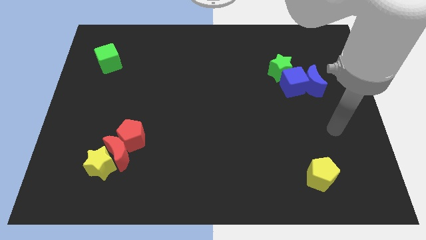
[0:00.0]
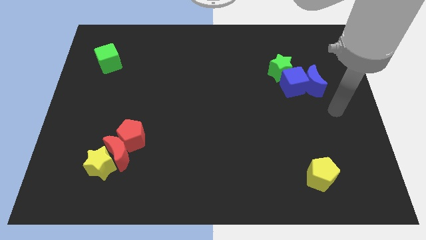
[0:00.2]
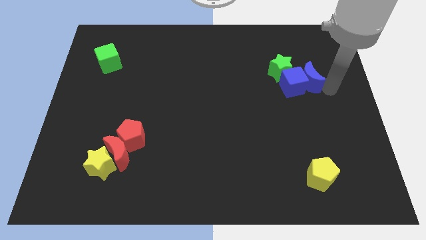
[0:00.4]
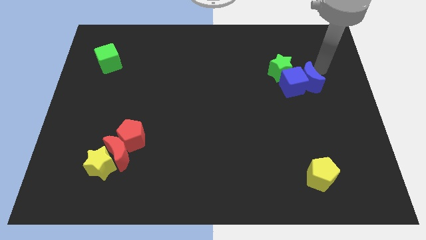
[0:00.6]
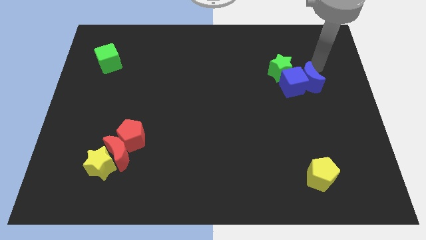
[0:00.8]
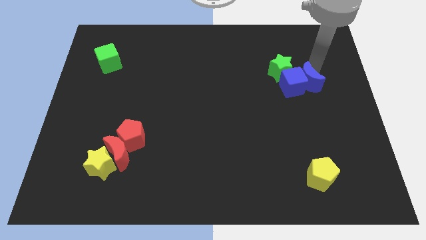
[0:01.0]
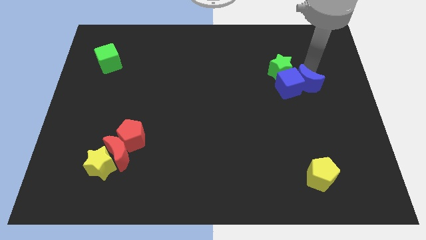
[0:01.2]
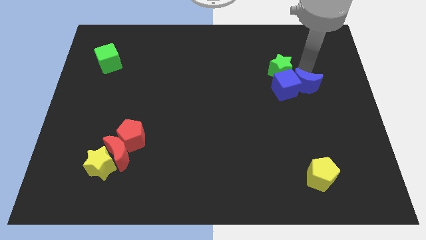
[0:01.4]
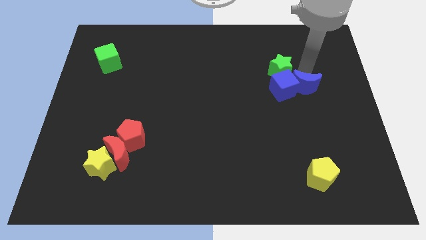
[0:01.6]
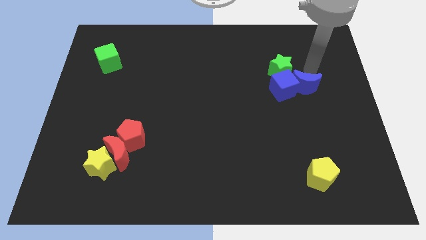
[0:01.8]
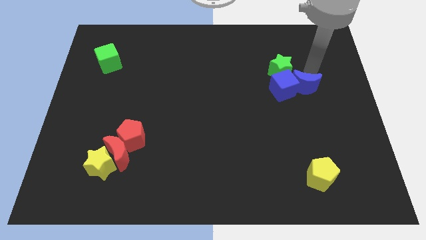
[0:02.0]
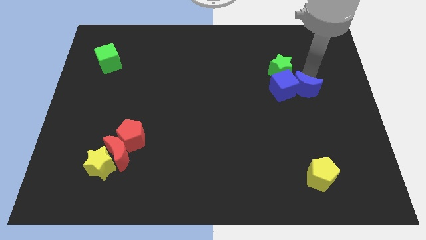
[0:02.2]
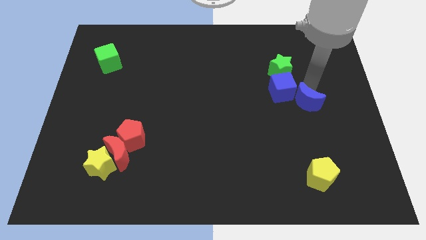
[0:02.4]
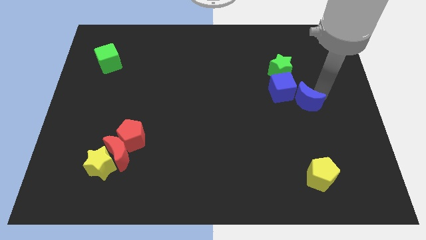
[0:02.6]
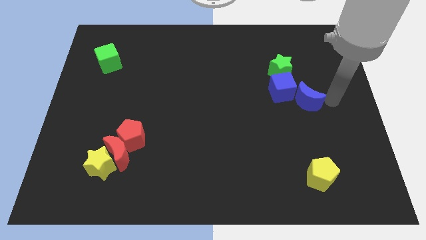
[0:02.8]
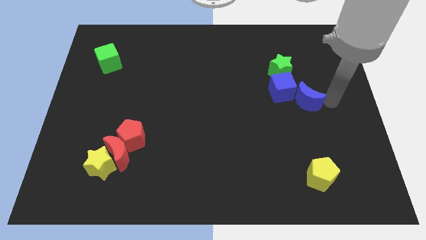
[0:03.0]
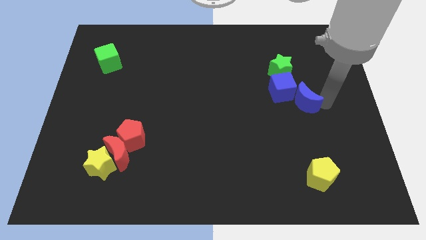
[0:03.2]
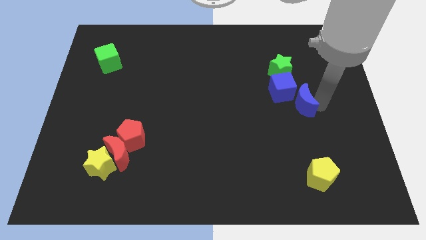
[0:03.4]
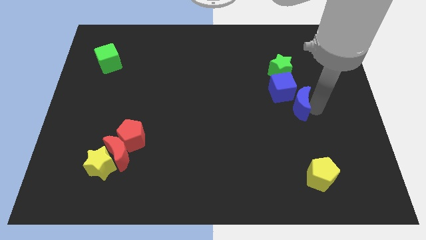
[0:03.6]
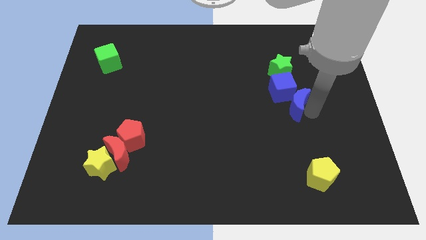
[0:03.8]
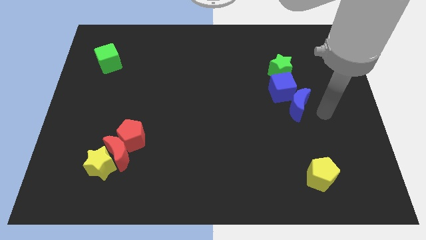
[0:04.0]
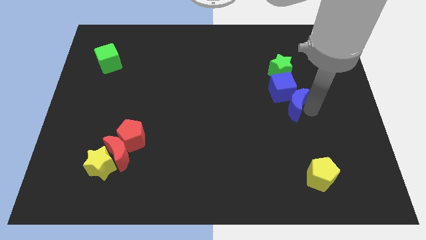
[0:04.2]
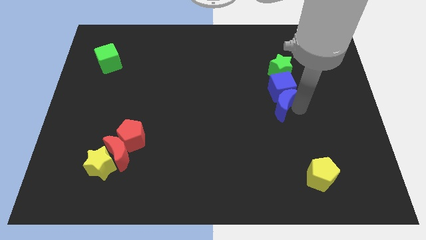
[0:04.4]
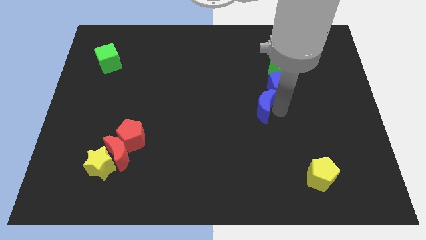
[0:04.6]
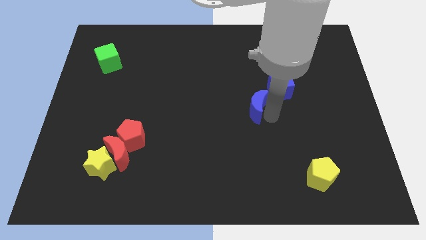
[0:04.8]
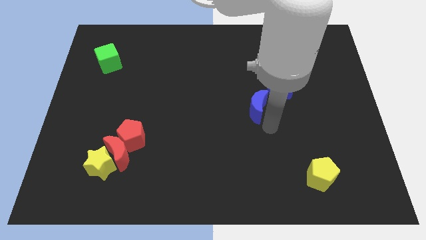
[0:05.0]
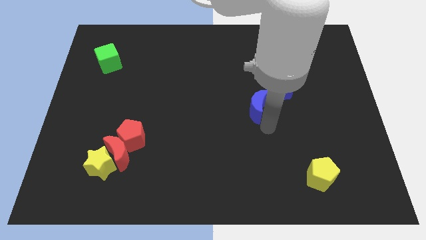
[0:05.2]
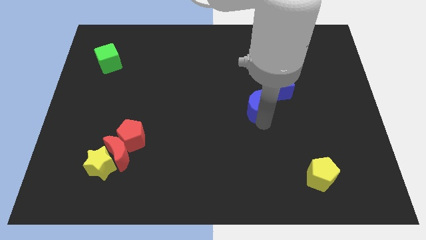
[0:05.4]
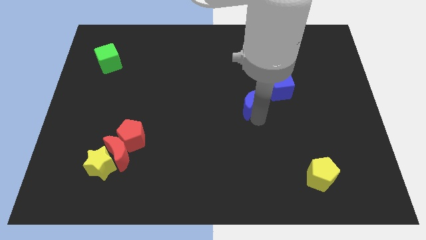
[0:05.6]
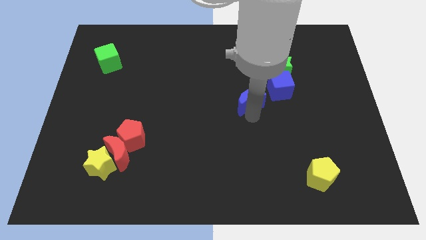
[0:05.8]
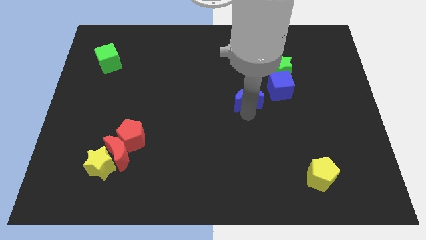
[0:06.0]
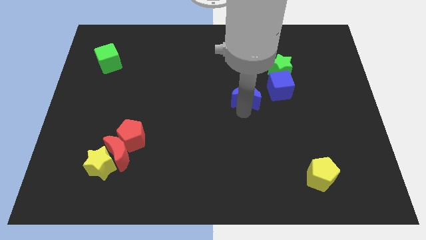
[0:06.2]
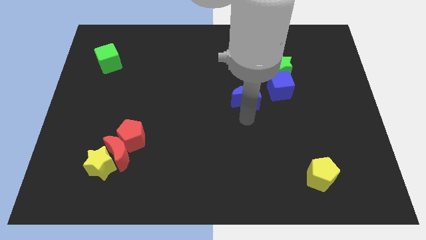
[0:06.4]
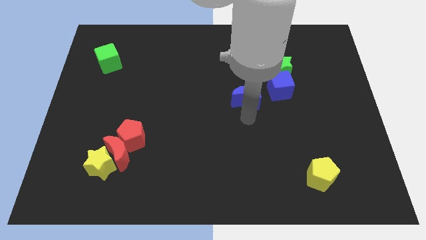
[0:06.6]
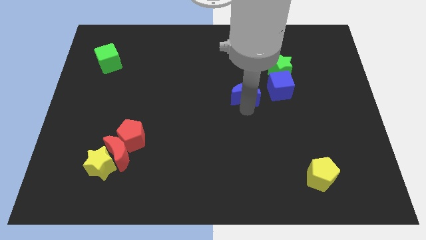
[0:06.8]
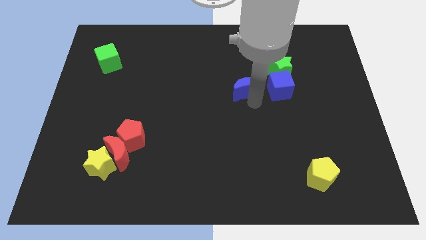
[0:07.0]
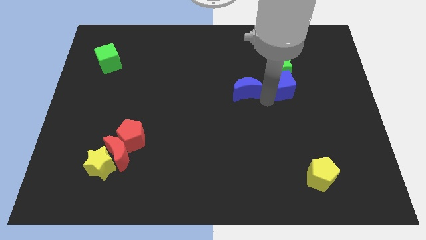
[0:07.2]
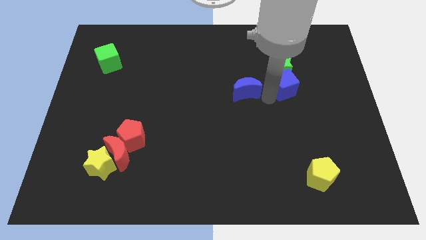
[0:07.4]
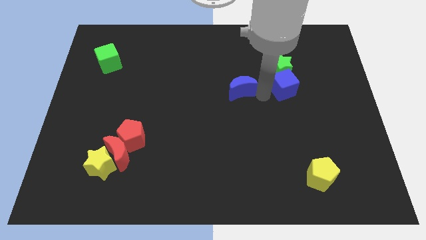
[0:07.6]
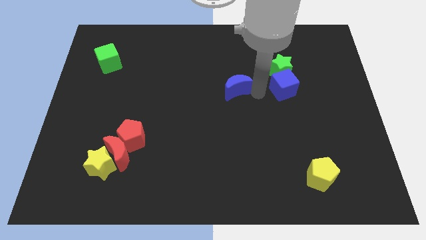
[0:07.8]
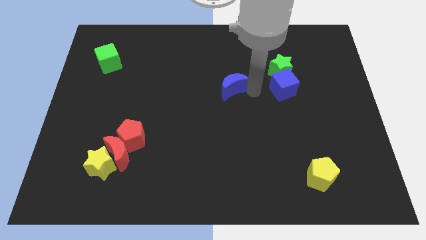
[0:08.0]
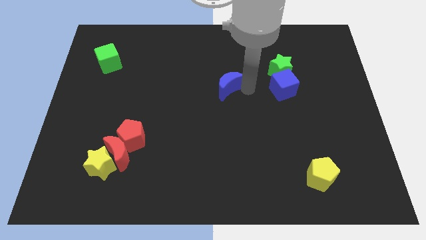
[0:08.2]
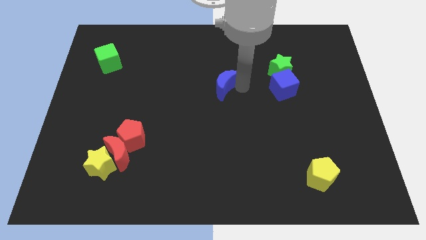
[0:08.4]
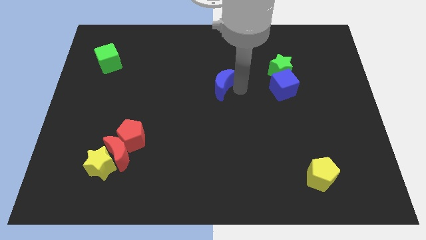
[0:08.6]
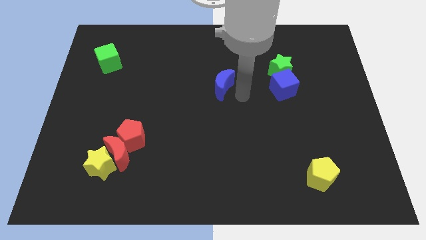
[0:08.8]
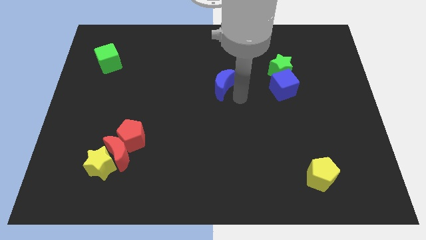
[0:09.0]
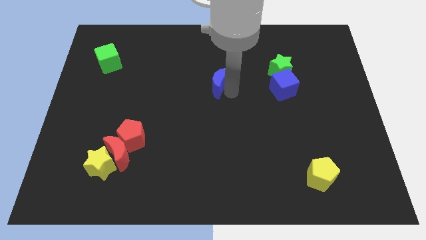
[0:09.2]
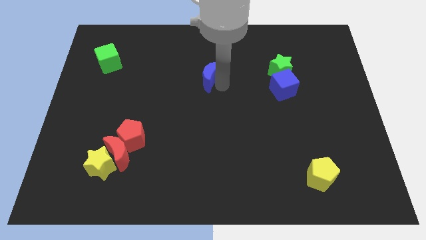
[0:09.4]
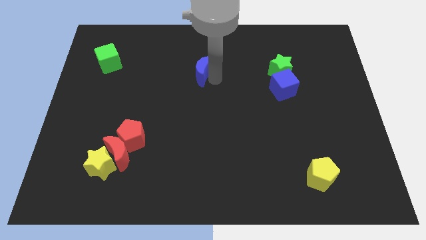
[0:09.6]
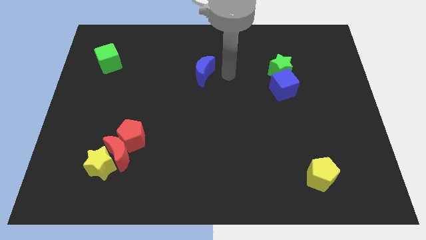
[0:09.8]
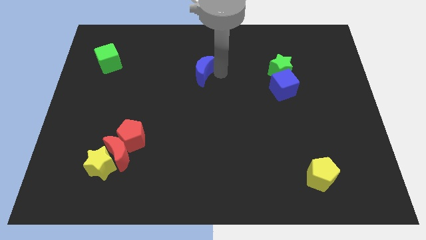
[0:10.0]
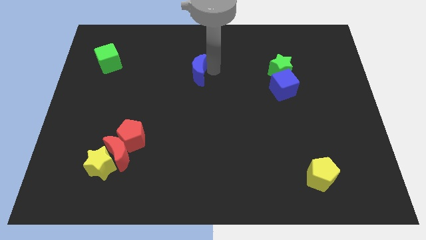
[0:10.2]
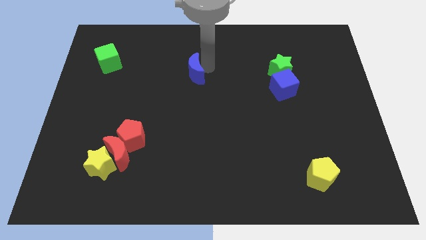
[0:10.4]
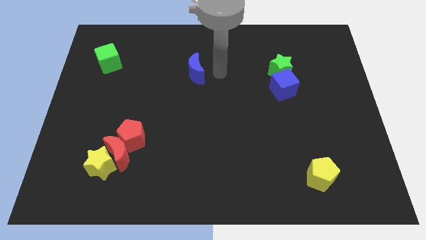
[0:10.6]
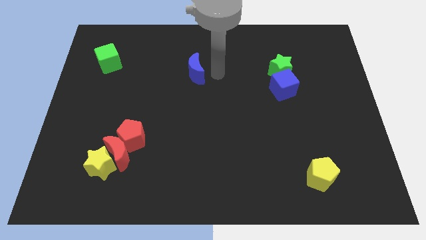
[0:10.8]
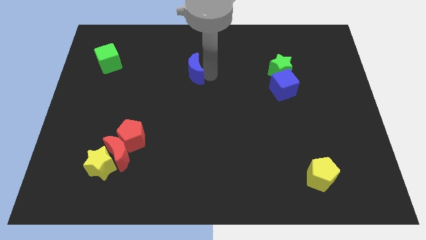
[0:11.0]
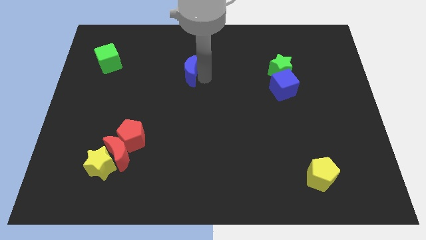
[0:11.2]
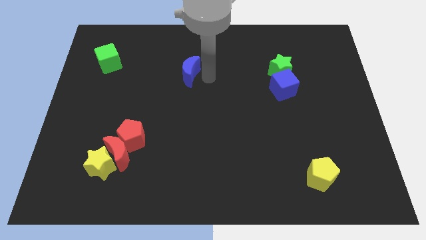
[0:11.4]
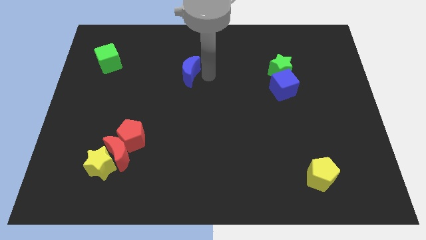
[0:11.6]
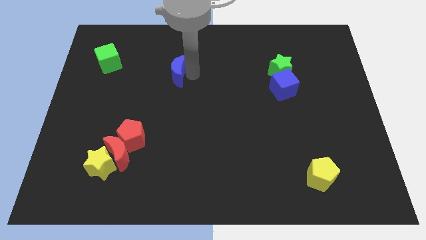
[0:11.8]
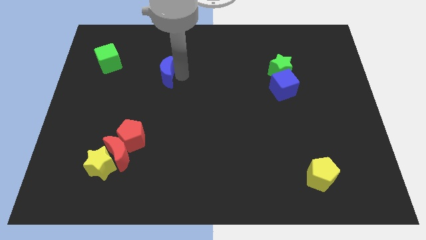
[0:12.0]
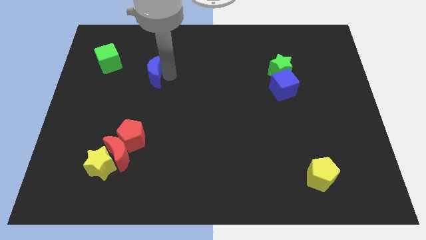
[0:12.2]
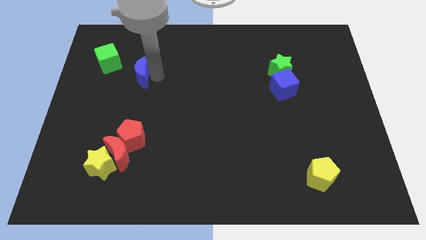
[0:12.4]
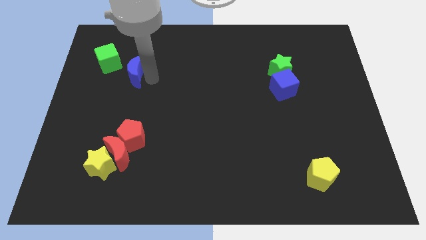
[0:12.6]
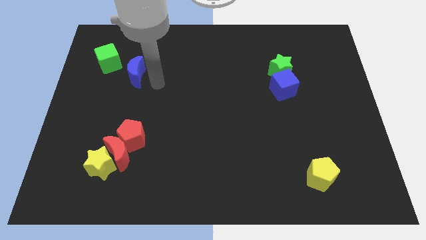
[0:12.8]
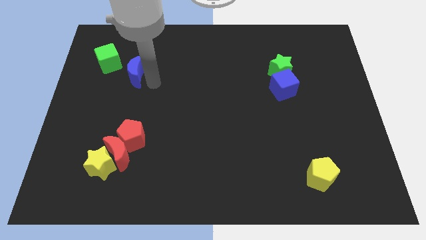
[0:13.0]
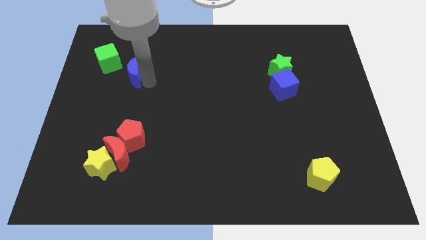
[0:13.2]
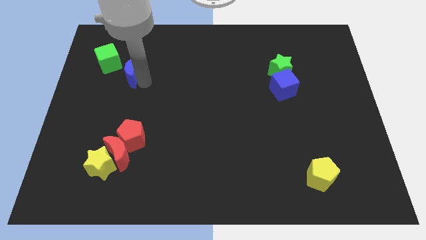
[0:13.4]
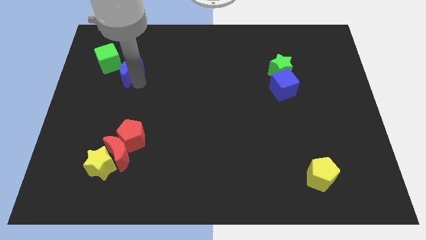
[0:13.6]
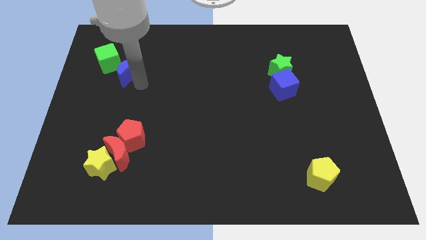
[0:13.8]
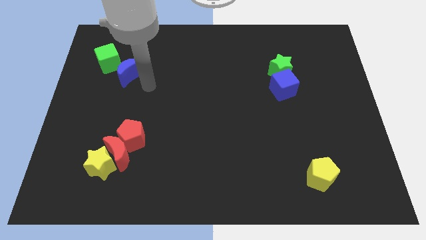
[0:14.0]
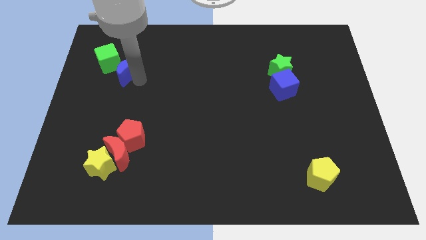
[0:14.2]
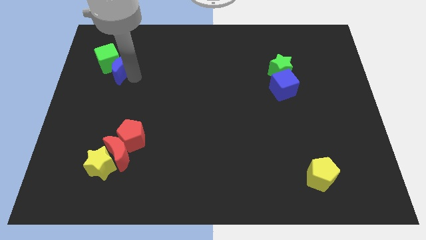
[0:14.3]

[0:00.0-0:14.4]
push the blue moon towards the green cube
